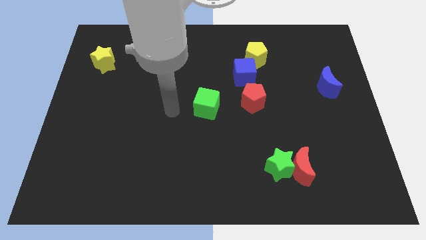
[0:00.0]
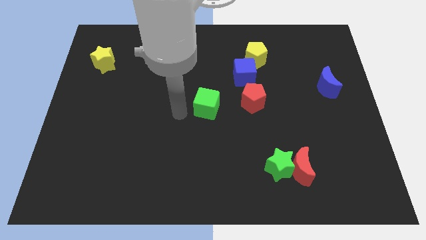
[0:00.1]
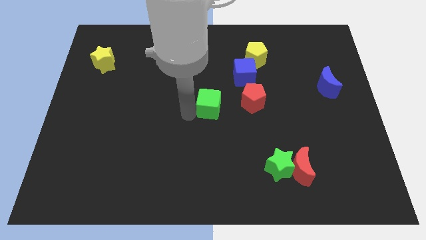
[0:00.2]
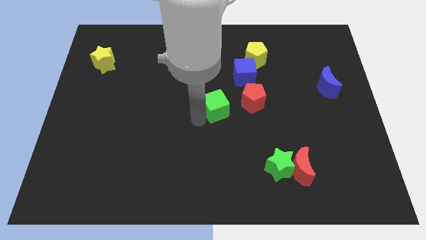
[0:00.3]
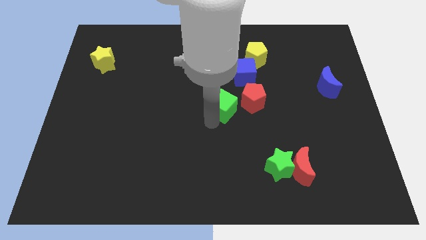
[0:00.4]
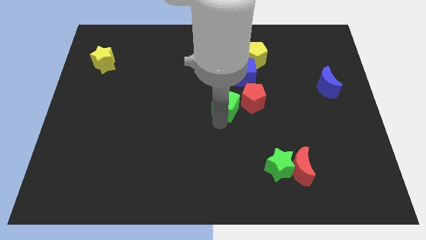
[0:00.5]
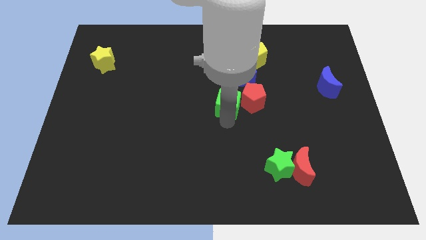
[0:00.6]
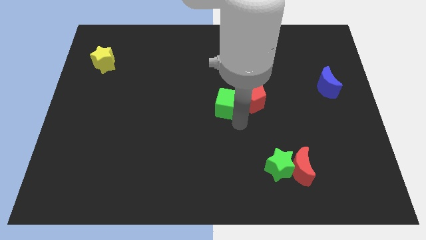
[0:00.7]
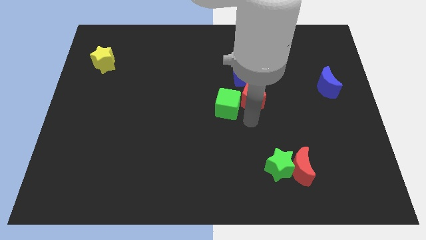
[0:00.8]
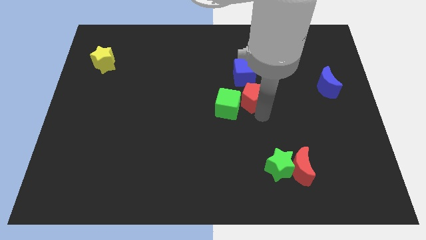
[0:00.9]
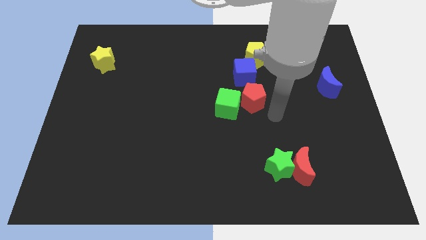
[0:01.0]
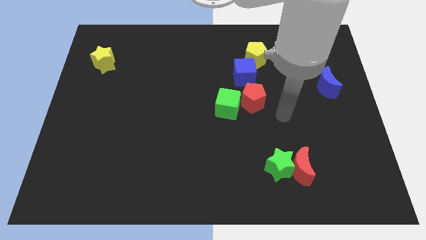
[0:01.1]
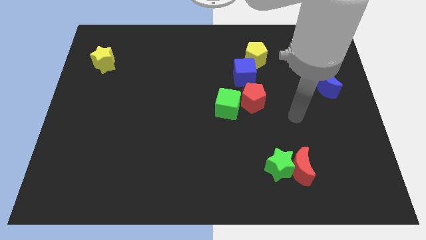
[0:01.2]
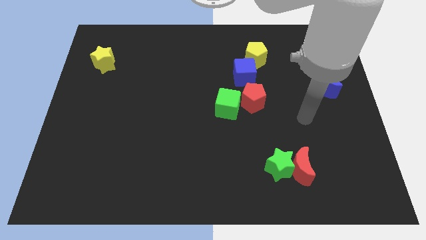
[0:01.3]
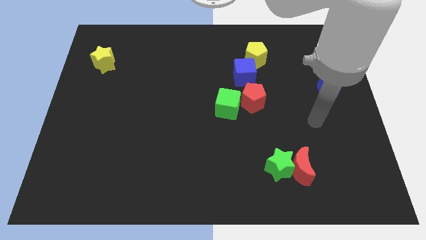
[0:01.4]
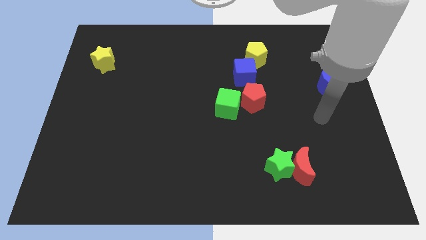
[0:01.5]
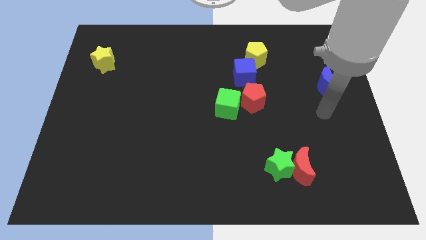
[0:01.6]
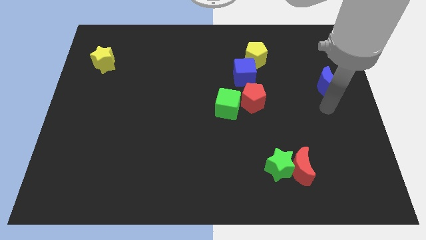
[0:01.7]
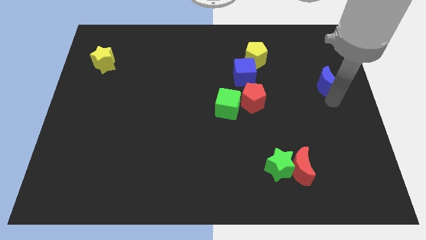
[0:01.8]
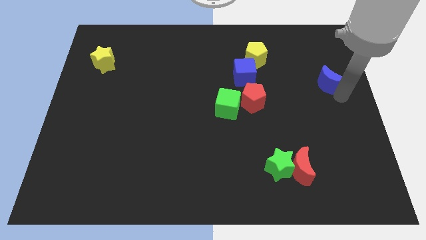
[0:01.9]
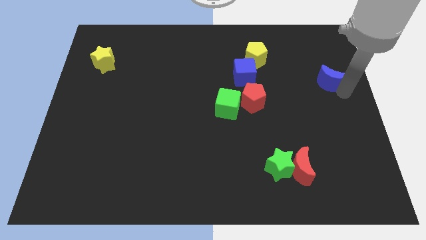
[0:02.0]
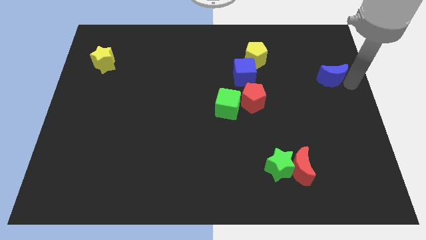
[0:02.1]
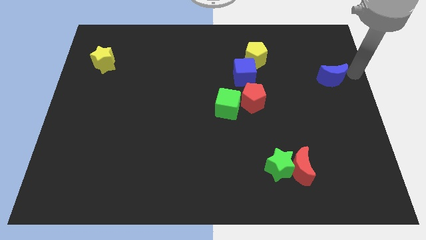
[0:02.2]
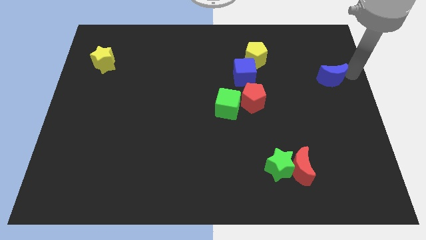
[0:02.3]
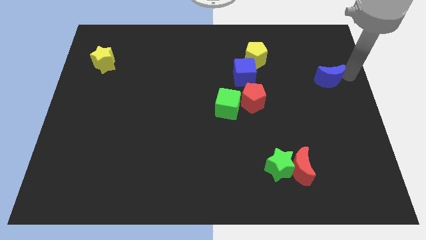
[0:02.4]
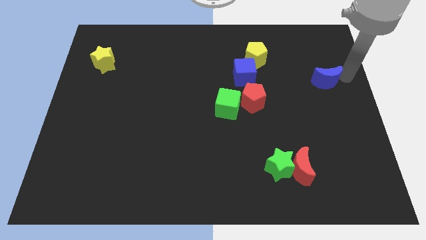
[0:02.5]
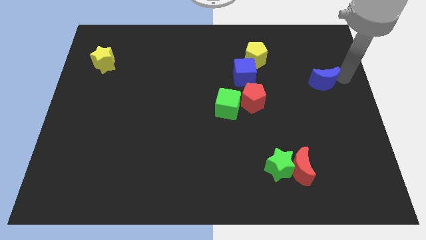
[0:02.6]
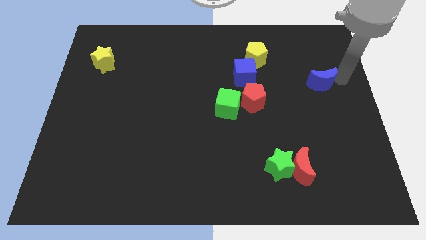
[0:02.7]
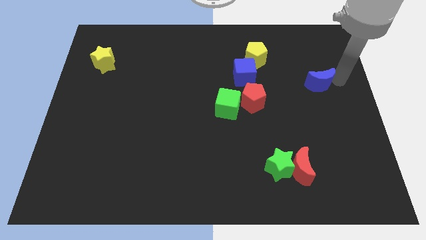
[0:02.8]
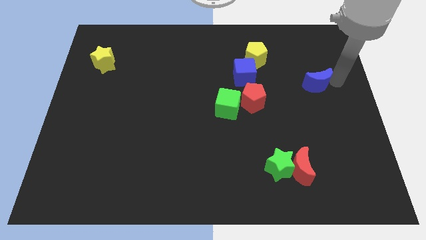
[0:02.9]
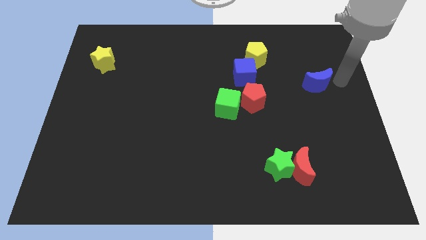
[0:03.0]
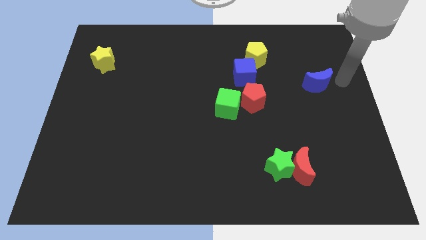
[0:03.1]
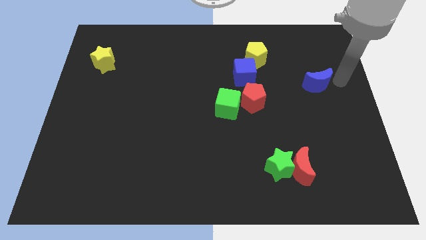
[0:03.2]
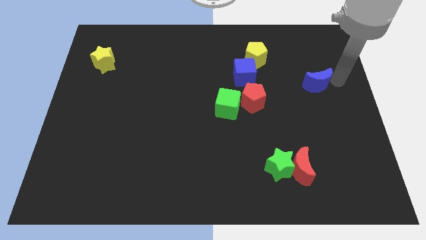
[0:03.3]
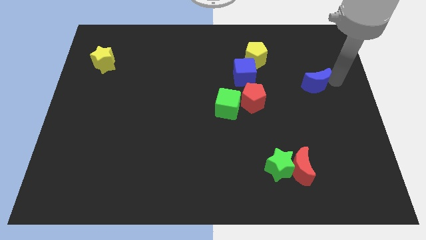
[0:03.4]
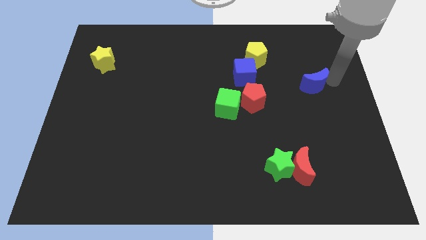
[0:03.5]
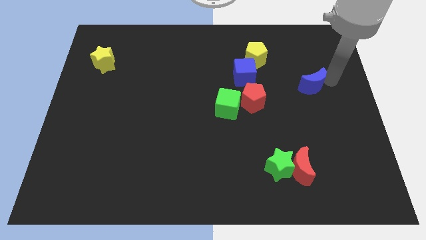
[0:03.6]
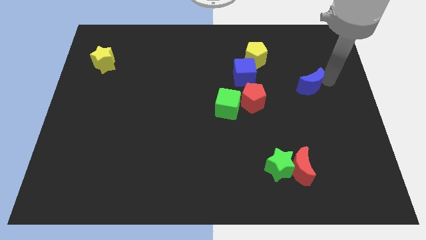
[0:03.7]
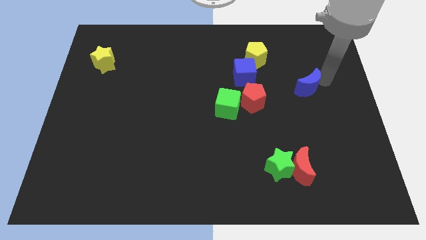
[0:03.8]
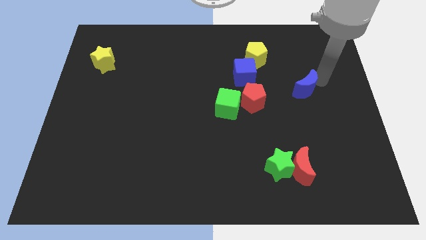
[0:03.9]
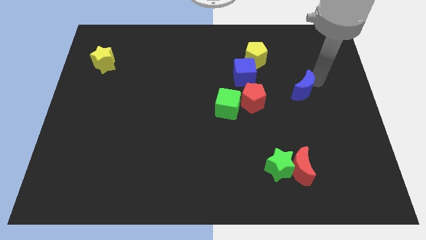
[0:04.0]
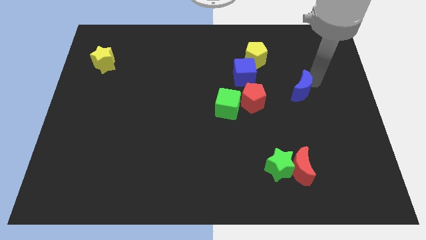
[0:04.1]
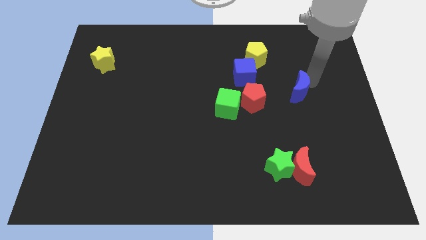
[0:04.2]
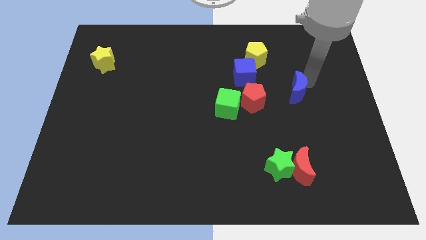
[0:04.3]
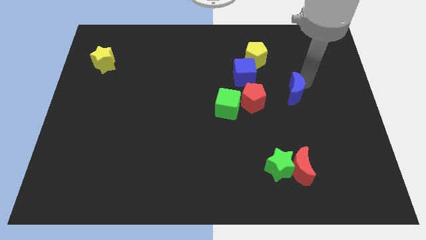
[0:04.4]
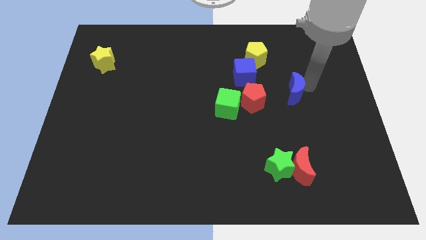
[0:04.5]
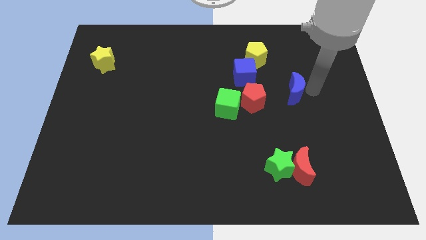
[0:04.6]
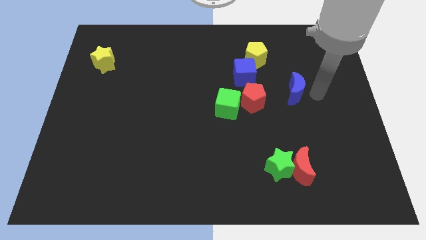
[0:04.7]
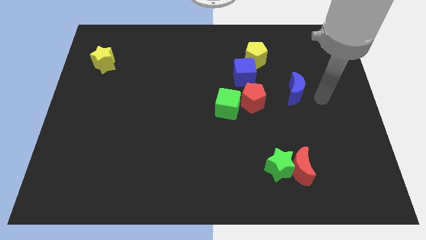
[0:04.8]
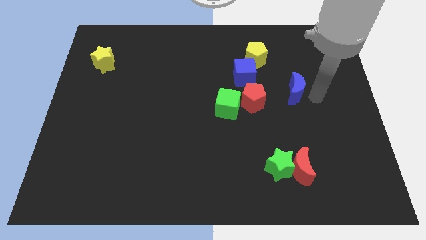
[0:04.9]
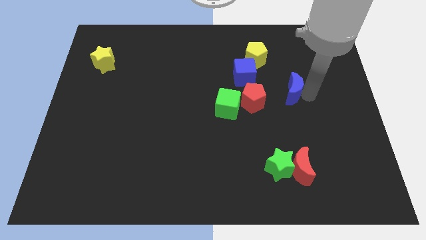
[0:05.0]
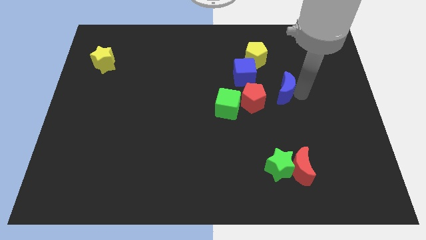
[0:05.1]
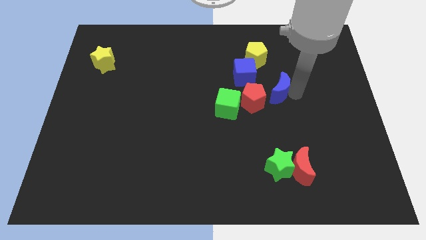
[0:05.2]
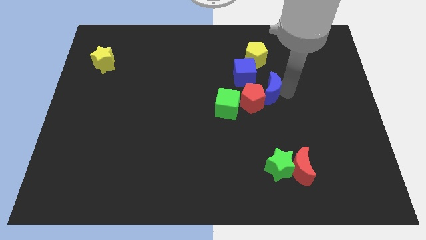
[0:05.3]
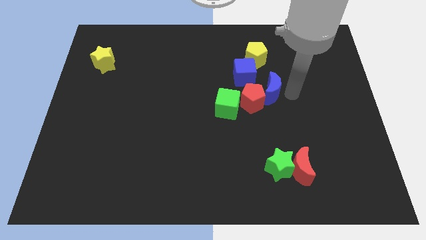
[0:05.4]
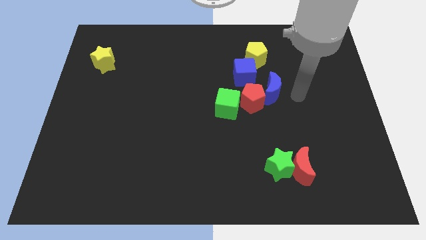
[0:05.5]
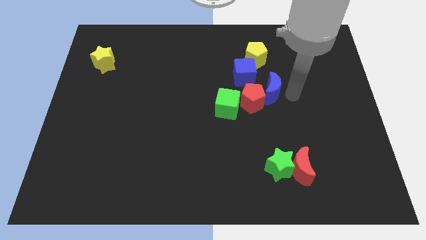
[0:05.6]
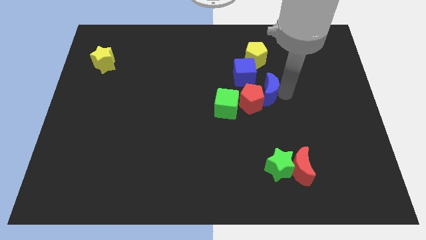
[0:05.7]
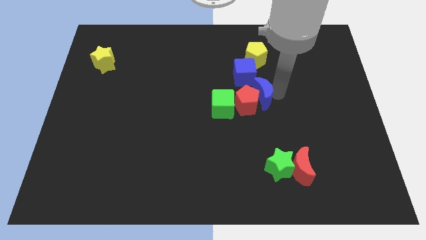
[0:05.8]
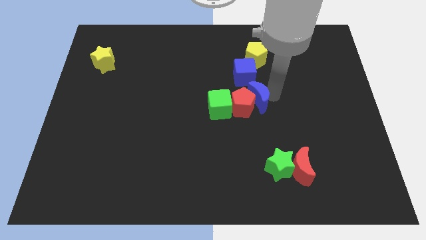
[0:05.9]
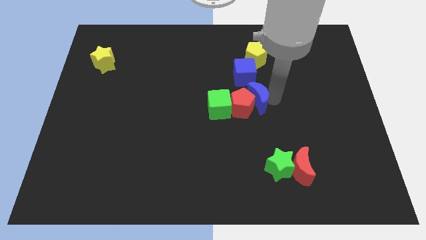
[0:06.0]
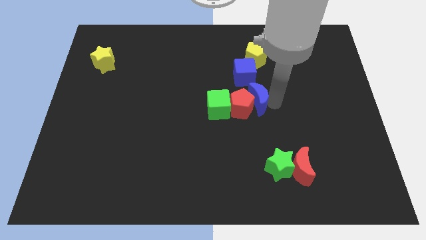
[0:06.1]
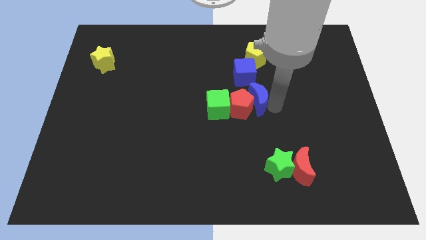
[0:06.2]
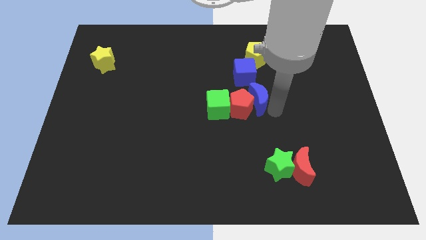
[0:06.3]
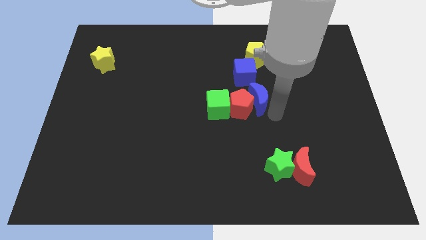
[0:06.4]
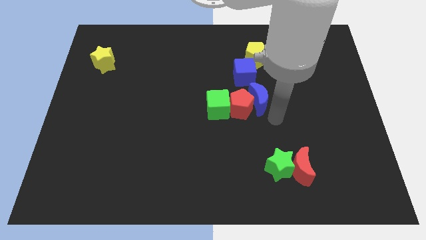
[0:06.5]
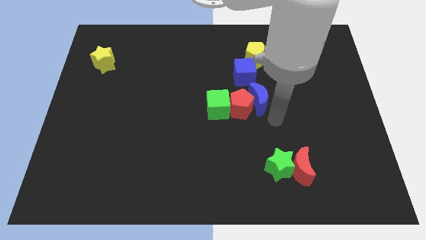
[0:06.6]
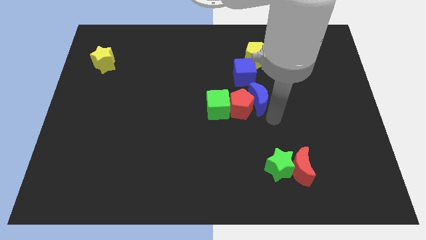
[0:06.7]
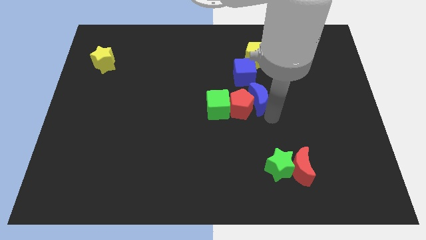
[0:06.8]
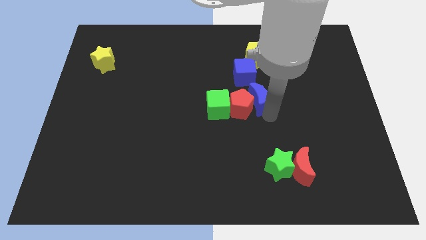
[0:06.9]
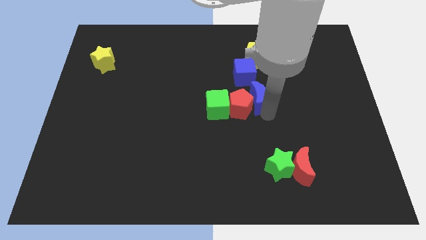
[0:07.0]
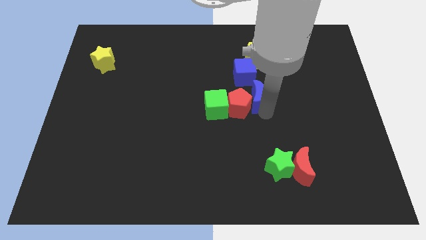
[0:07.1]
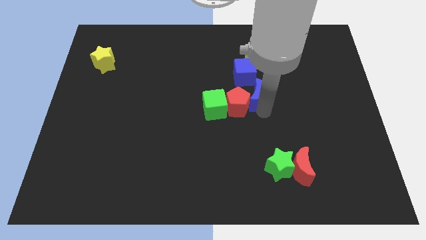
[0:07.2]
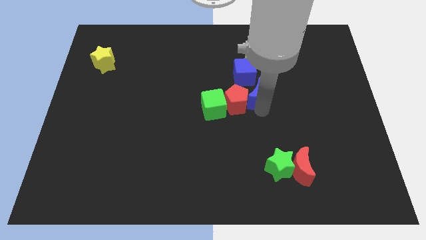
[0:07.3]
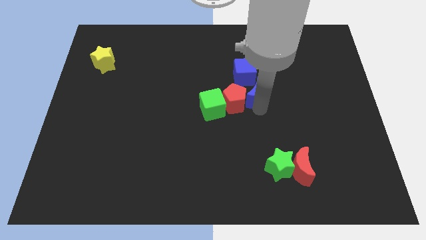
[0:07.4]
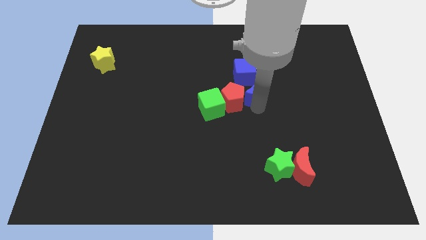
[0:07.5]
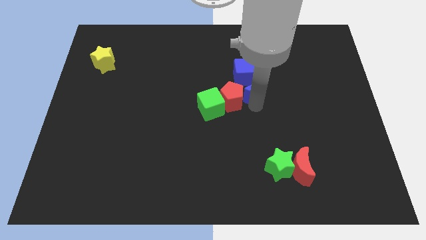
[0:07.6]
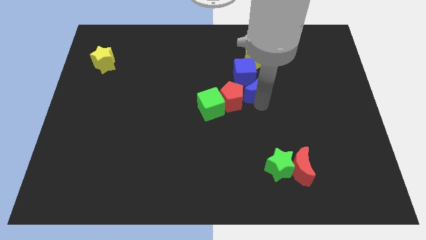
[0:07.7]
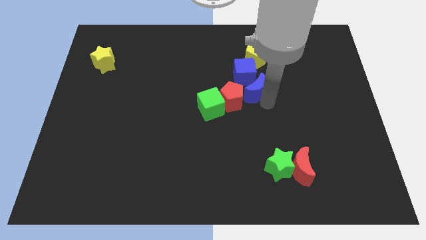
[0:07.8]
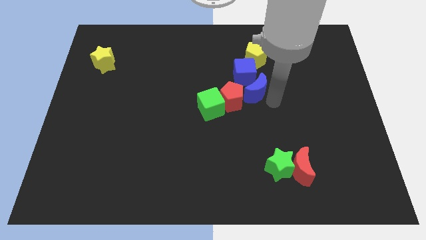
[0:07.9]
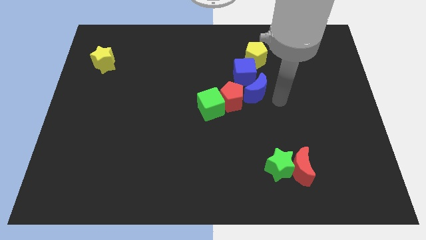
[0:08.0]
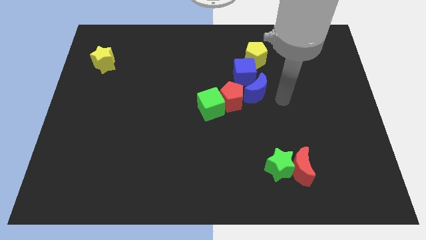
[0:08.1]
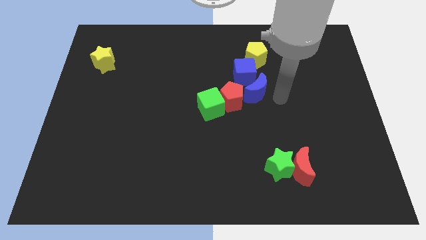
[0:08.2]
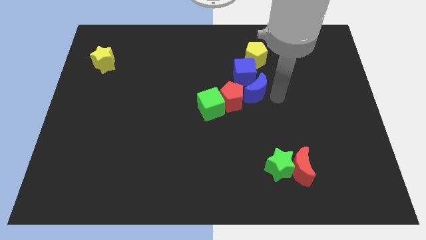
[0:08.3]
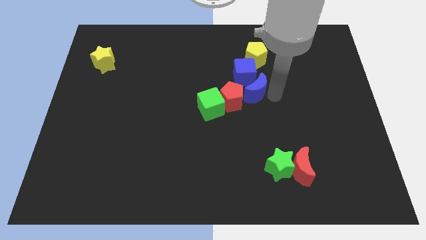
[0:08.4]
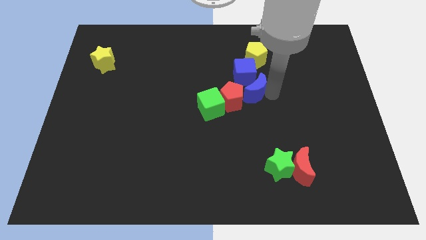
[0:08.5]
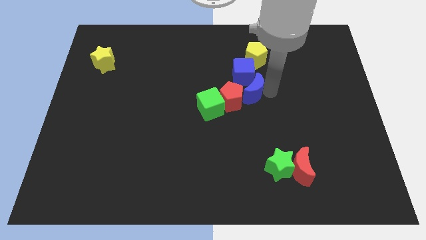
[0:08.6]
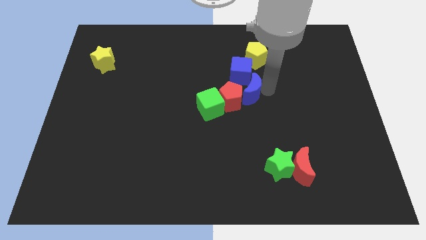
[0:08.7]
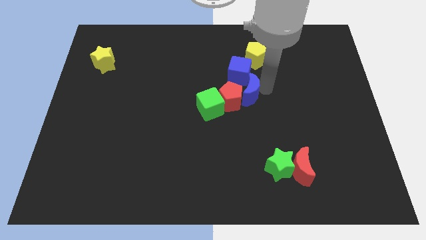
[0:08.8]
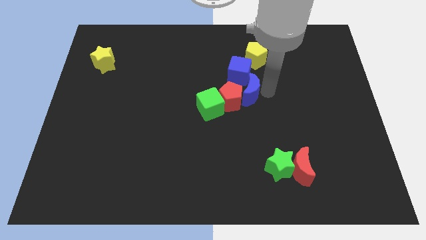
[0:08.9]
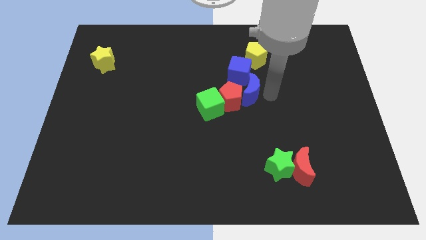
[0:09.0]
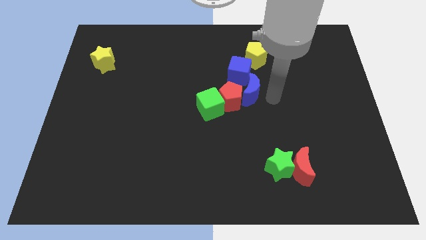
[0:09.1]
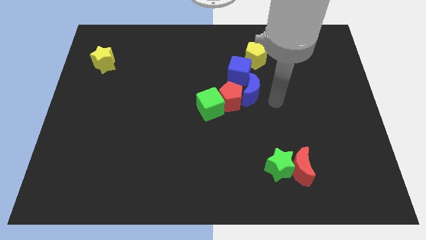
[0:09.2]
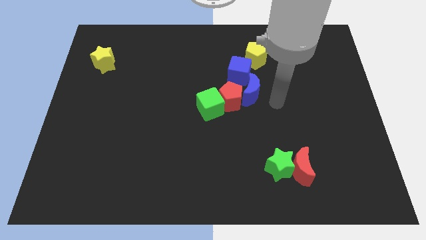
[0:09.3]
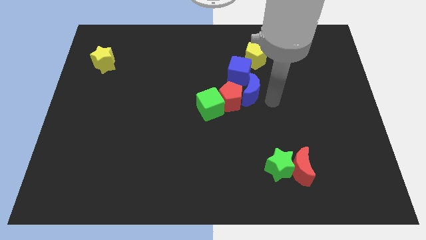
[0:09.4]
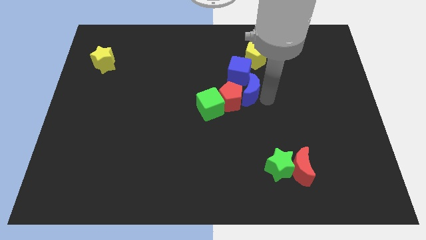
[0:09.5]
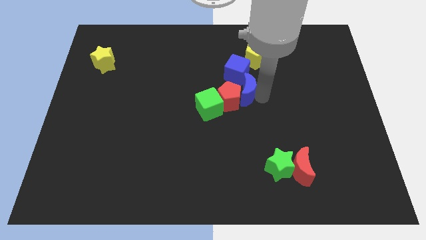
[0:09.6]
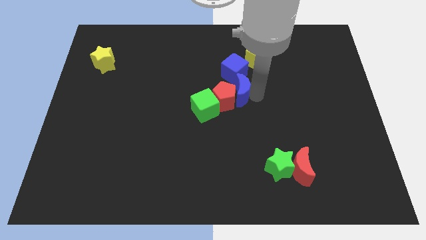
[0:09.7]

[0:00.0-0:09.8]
move the blue moon left
